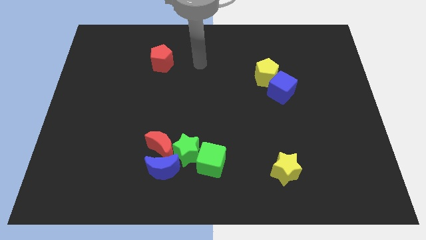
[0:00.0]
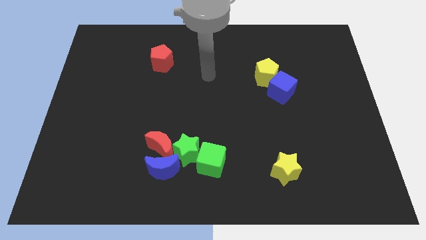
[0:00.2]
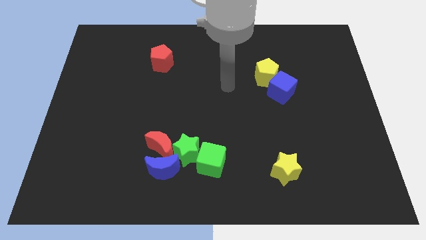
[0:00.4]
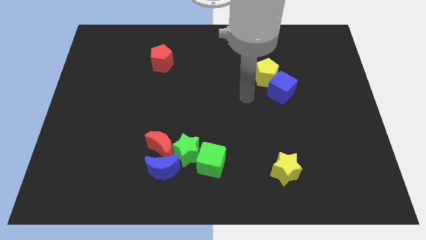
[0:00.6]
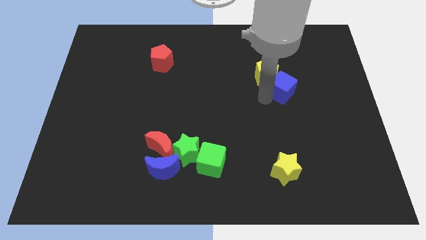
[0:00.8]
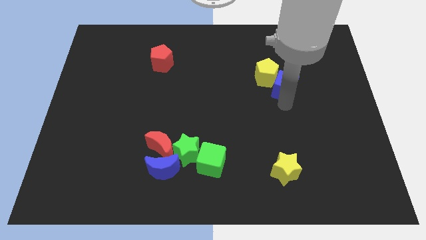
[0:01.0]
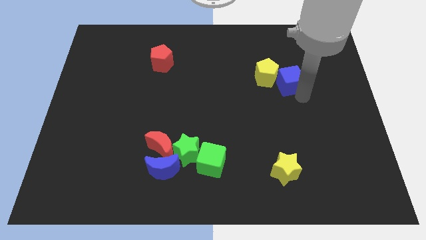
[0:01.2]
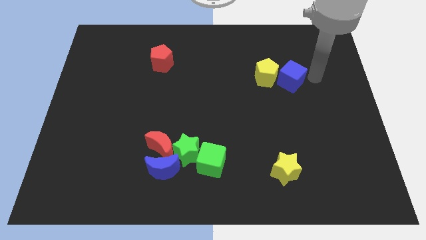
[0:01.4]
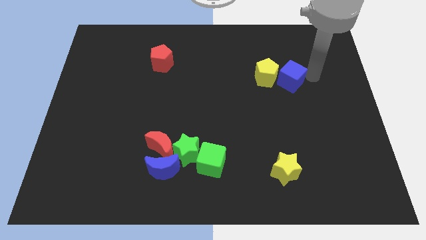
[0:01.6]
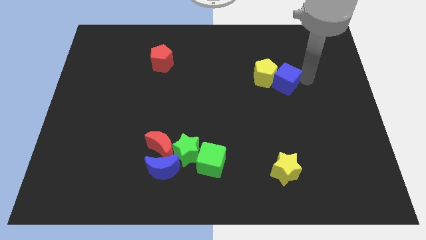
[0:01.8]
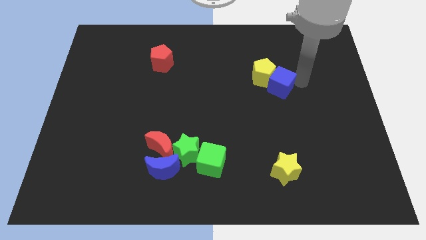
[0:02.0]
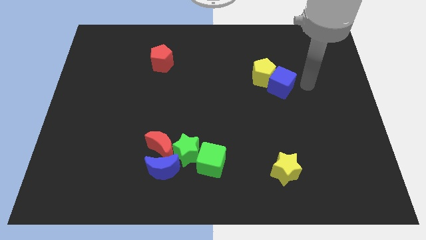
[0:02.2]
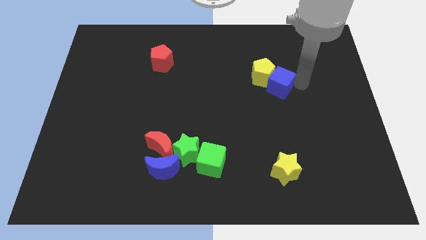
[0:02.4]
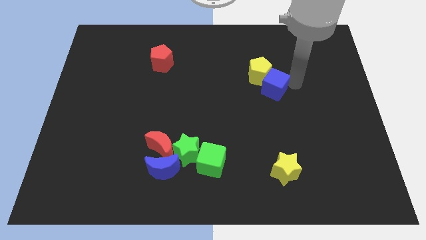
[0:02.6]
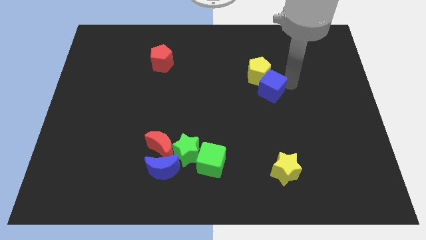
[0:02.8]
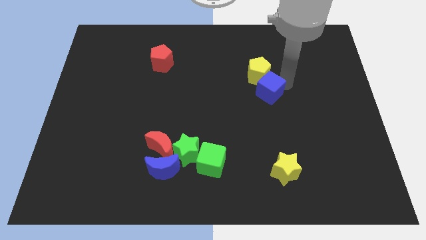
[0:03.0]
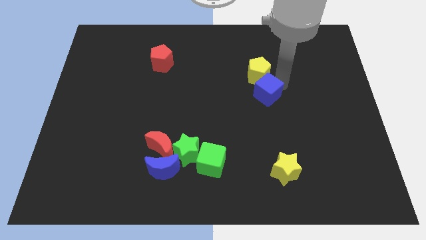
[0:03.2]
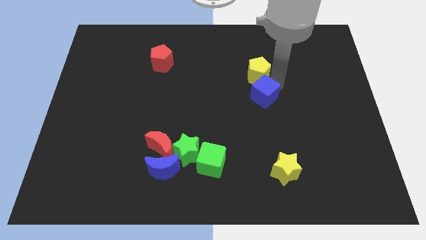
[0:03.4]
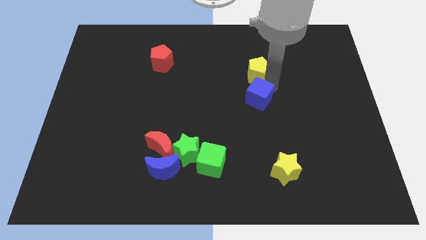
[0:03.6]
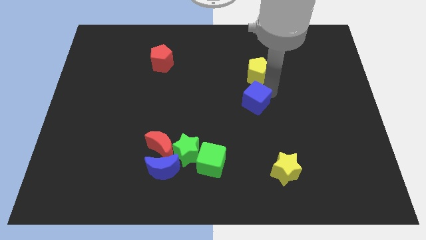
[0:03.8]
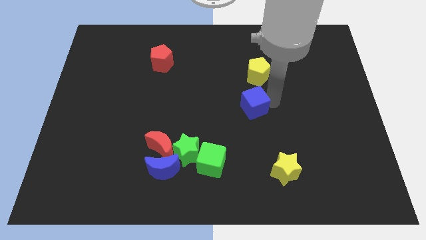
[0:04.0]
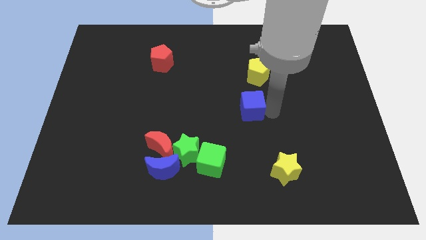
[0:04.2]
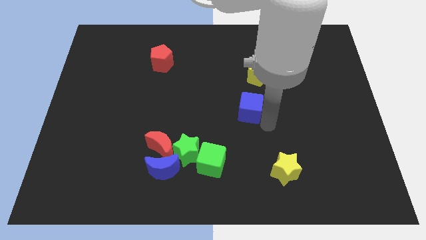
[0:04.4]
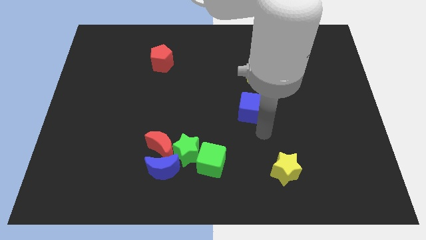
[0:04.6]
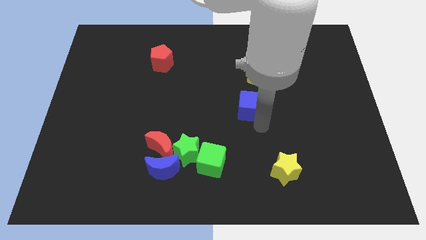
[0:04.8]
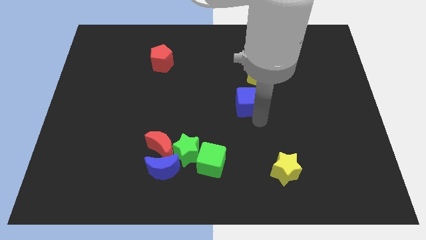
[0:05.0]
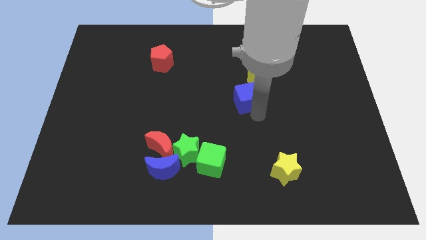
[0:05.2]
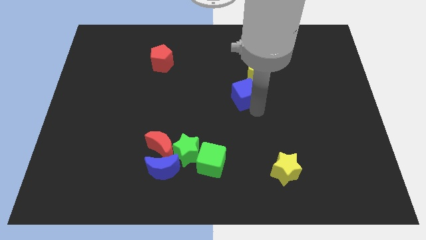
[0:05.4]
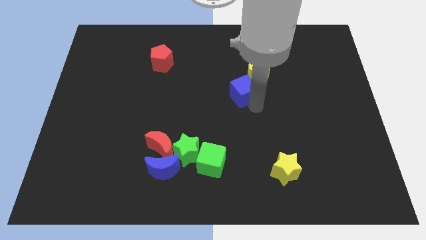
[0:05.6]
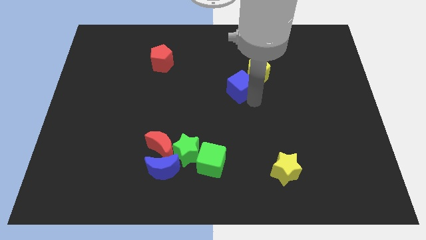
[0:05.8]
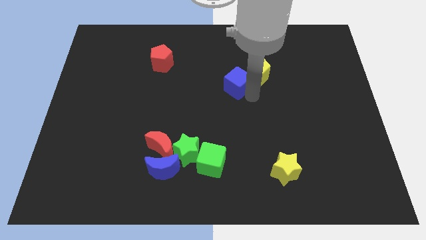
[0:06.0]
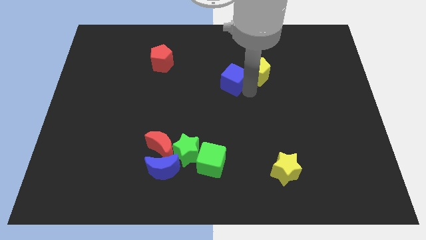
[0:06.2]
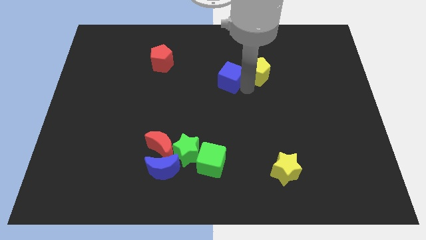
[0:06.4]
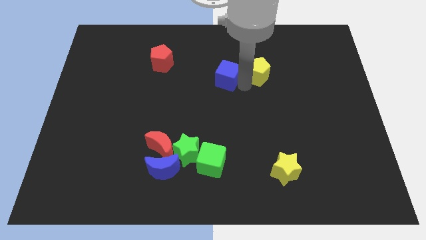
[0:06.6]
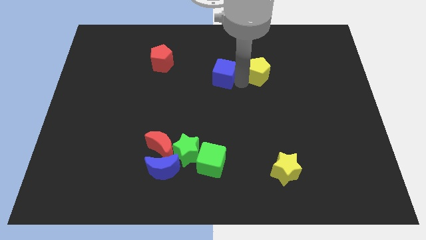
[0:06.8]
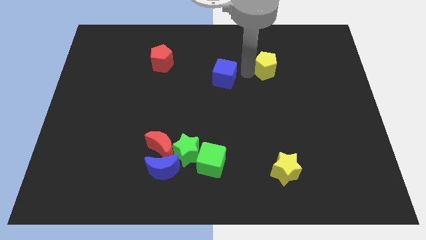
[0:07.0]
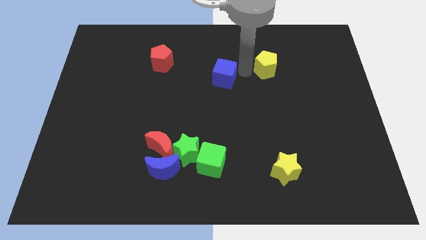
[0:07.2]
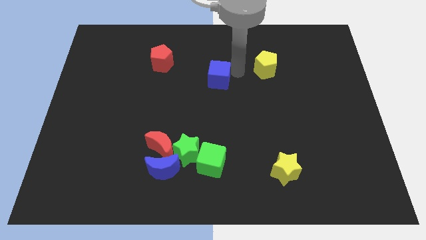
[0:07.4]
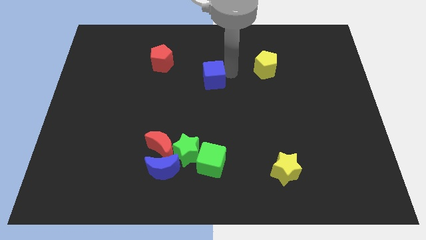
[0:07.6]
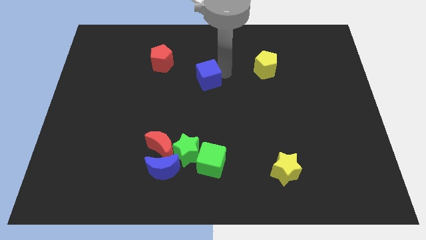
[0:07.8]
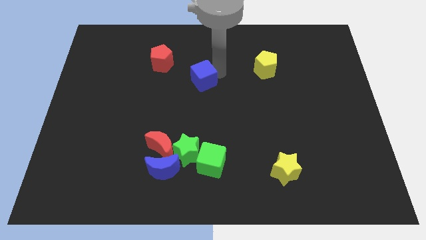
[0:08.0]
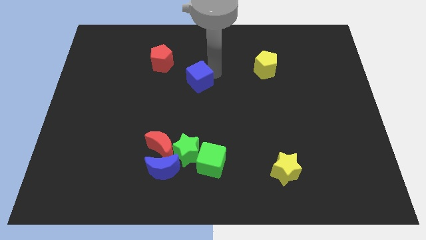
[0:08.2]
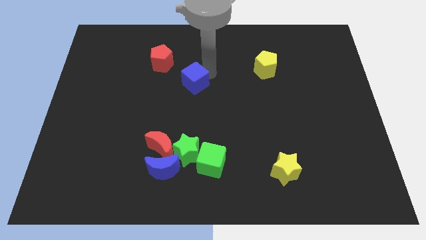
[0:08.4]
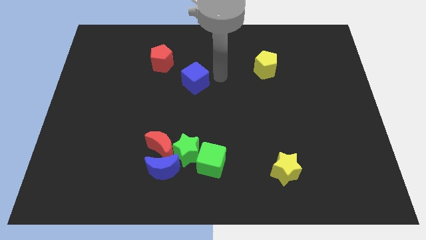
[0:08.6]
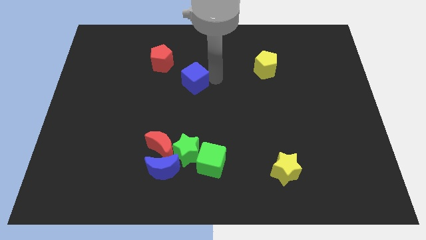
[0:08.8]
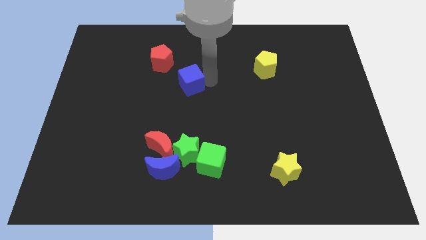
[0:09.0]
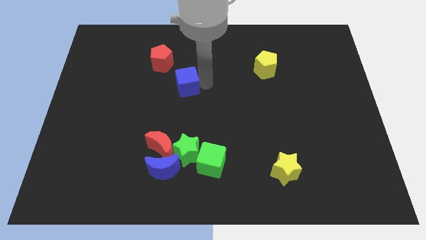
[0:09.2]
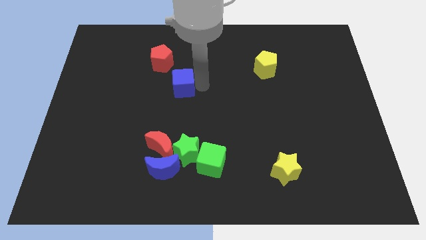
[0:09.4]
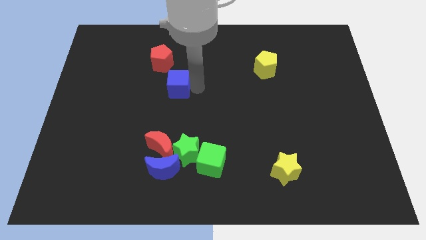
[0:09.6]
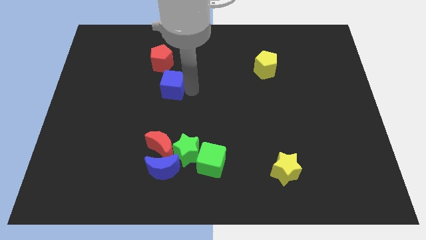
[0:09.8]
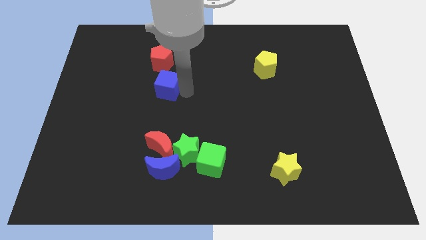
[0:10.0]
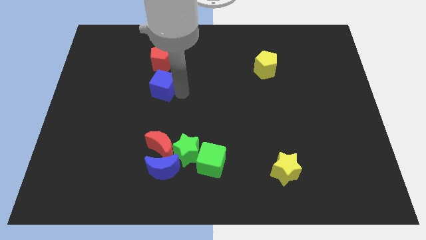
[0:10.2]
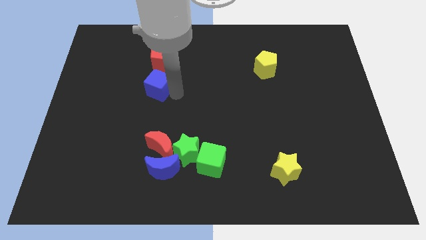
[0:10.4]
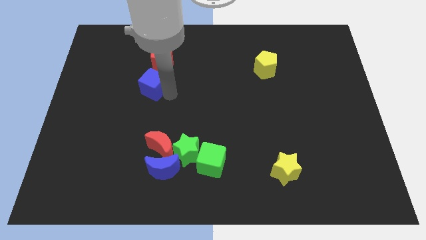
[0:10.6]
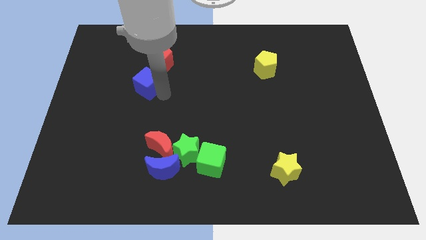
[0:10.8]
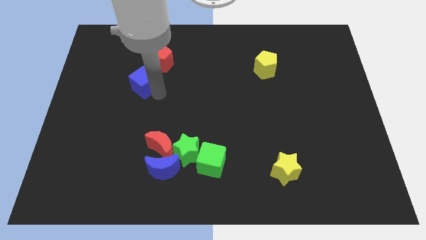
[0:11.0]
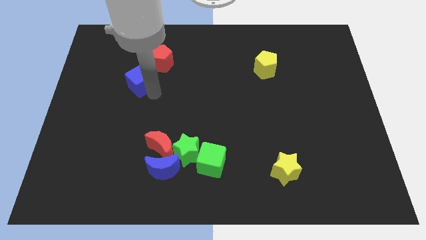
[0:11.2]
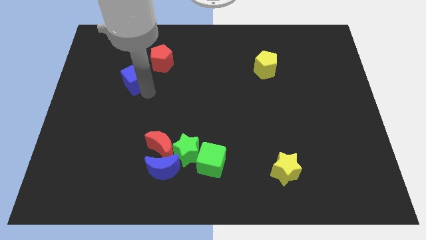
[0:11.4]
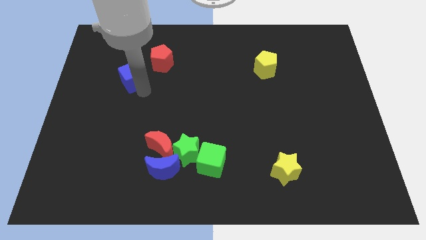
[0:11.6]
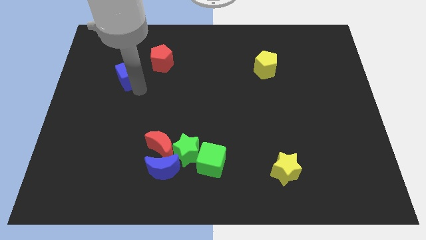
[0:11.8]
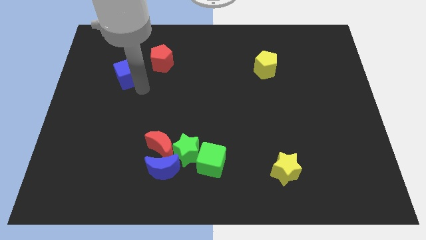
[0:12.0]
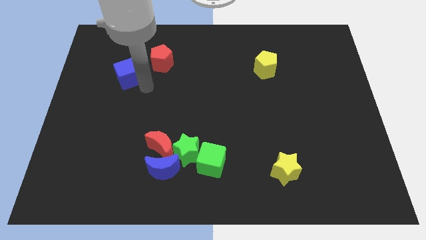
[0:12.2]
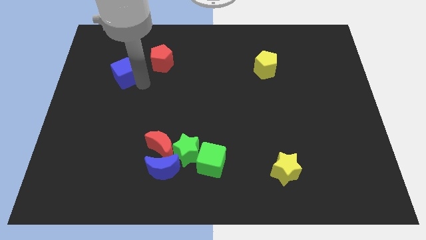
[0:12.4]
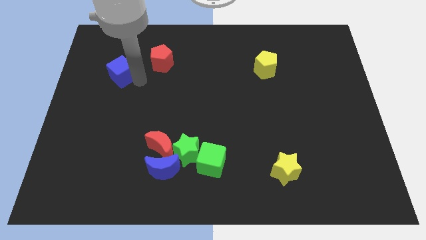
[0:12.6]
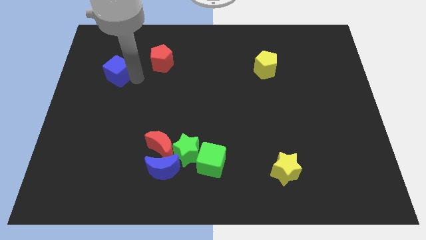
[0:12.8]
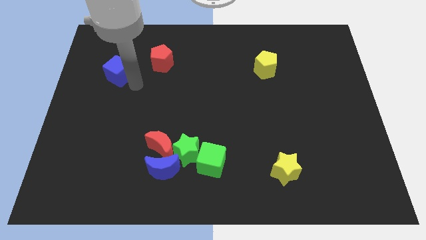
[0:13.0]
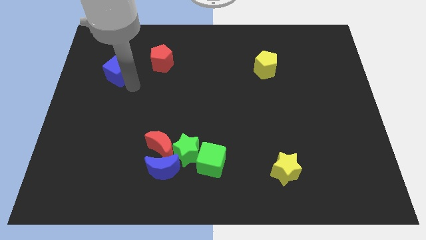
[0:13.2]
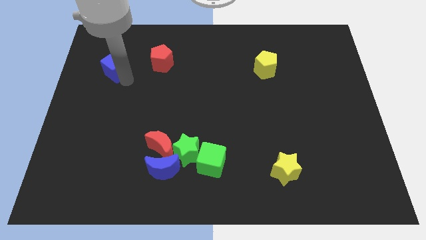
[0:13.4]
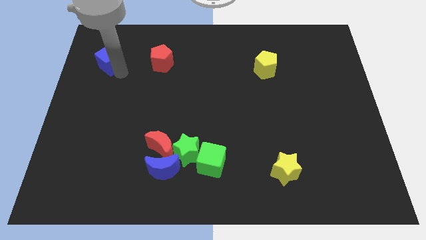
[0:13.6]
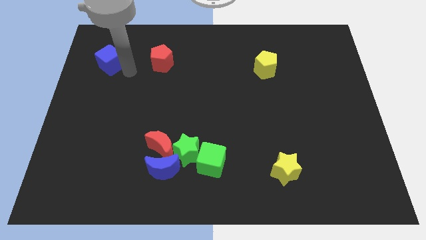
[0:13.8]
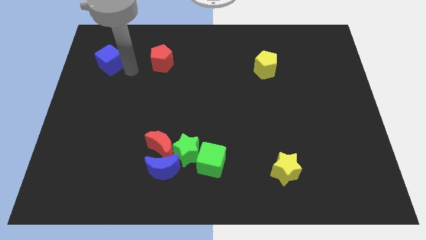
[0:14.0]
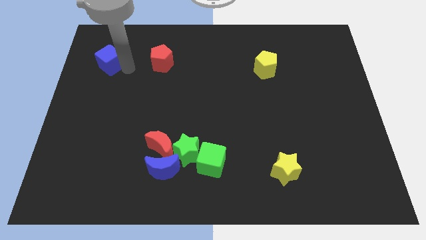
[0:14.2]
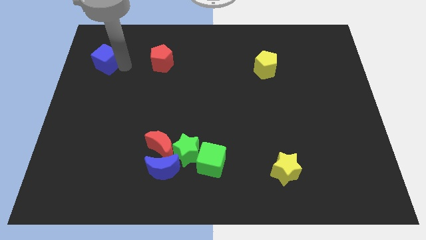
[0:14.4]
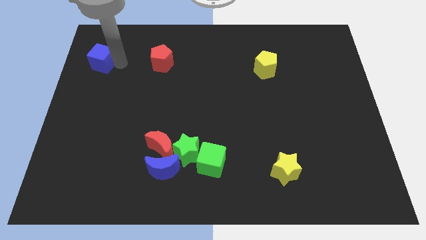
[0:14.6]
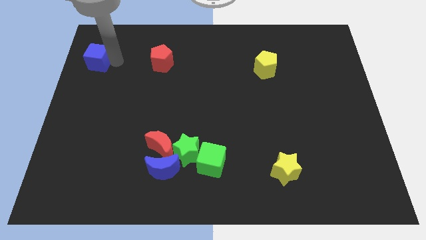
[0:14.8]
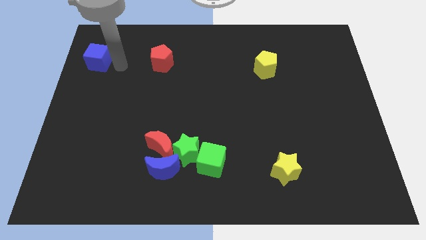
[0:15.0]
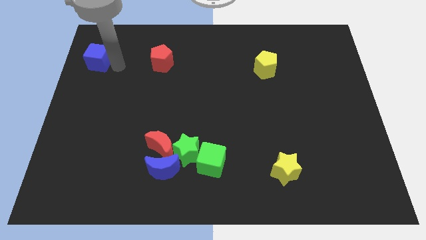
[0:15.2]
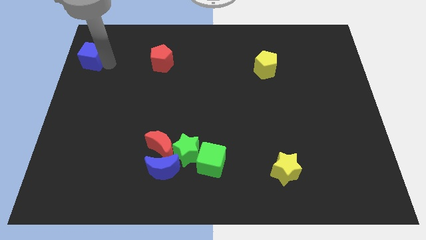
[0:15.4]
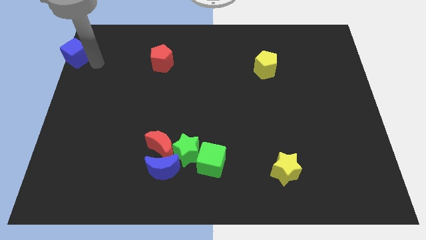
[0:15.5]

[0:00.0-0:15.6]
slide the blue cube to the top left corner
